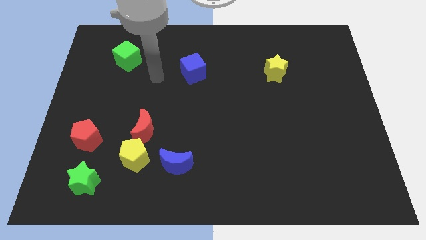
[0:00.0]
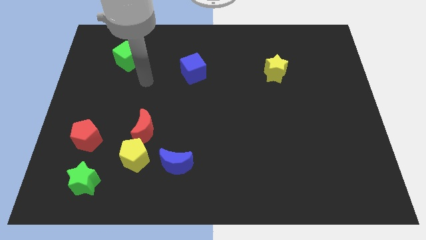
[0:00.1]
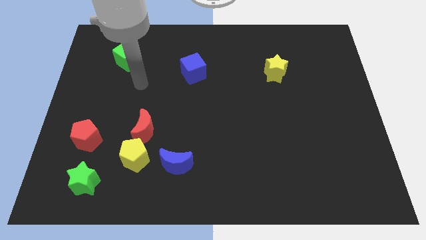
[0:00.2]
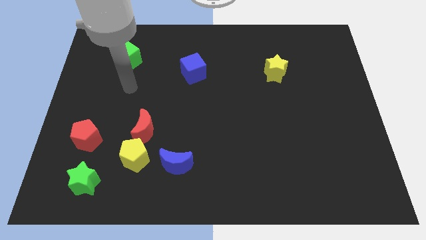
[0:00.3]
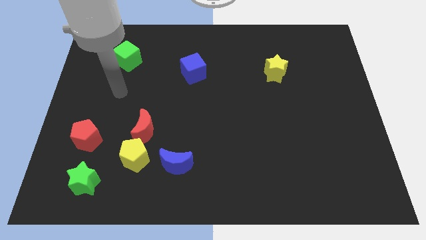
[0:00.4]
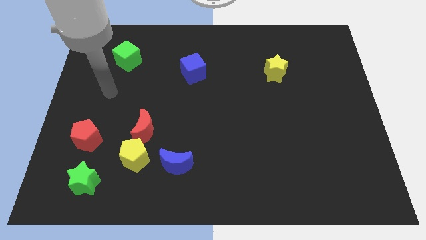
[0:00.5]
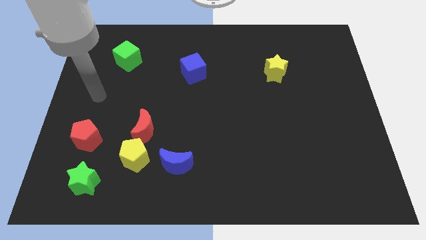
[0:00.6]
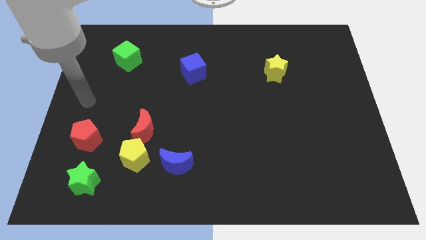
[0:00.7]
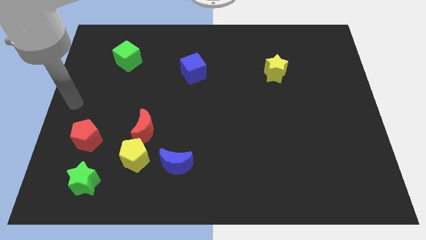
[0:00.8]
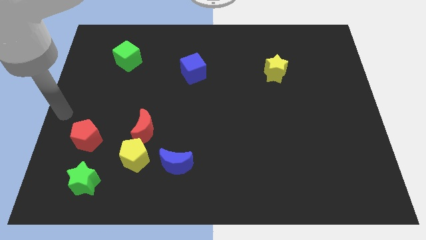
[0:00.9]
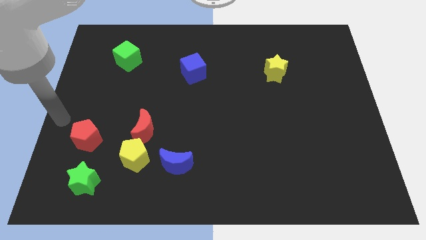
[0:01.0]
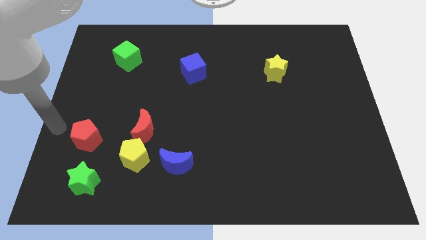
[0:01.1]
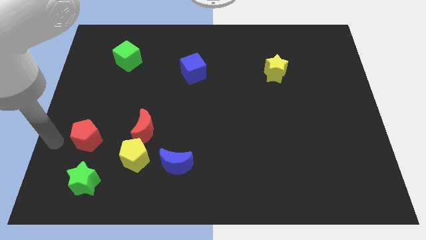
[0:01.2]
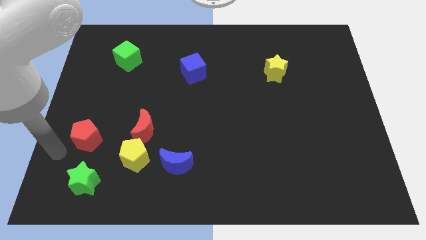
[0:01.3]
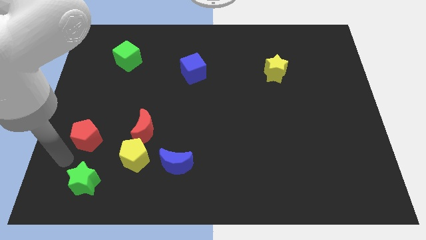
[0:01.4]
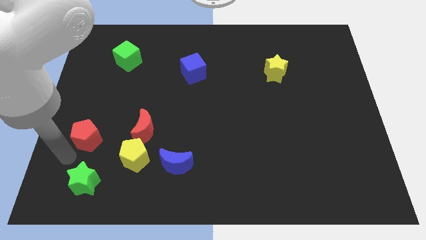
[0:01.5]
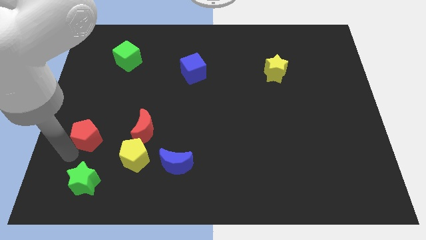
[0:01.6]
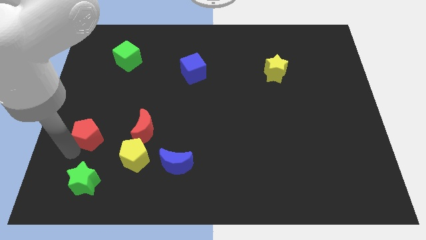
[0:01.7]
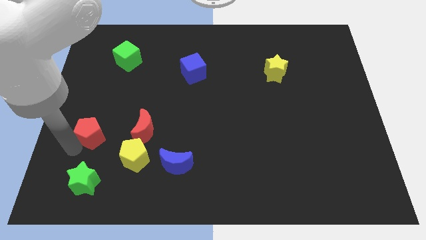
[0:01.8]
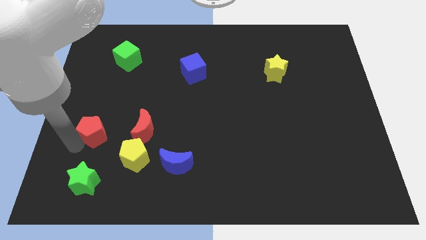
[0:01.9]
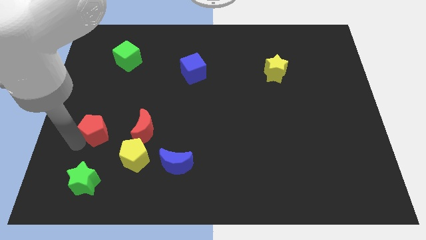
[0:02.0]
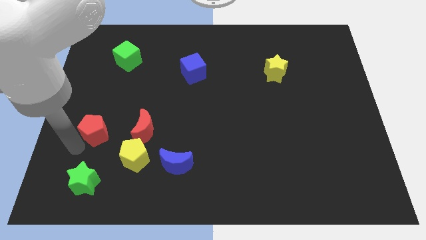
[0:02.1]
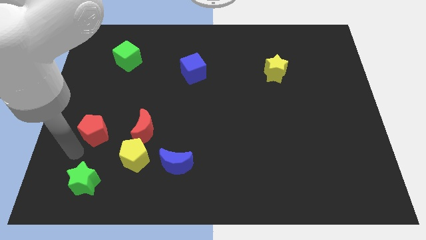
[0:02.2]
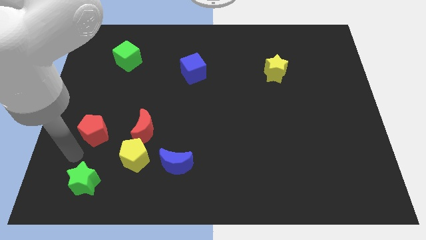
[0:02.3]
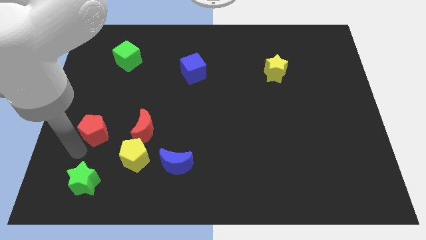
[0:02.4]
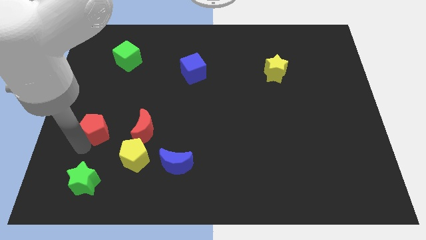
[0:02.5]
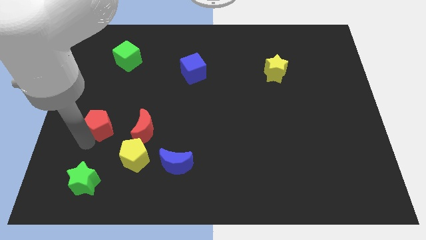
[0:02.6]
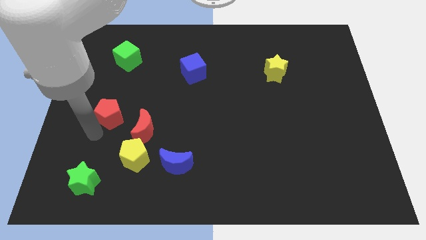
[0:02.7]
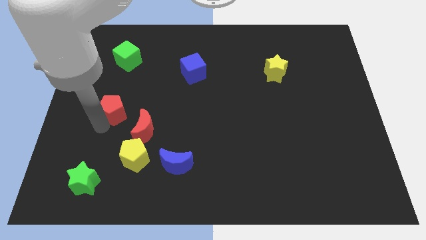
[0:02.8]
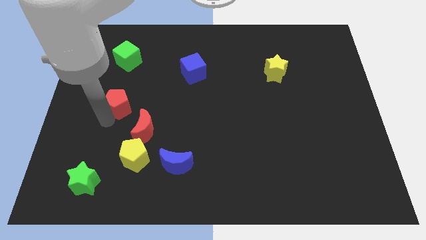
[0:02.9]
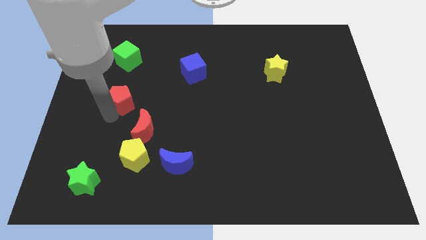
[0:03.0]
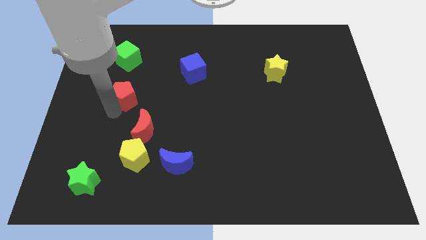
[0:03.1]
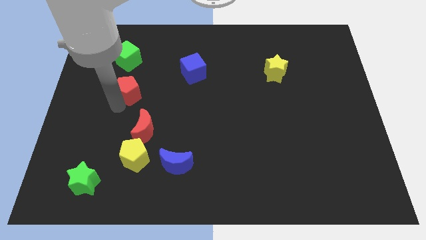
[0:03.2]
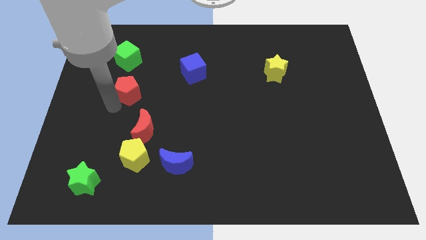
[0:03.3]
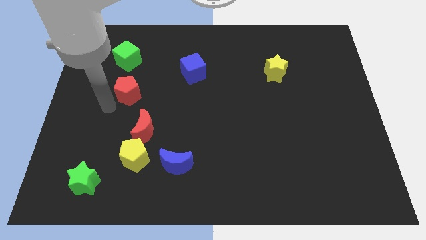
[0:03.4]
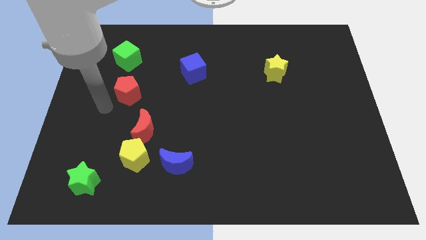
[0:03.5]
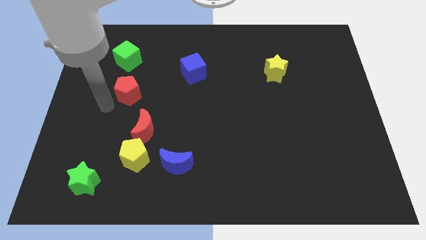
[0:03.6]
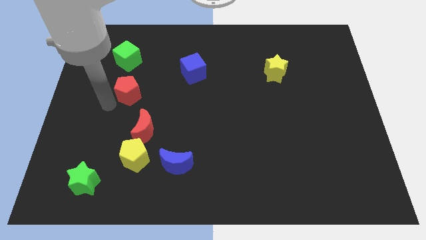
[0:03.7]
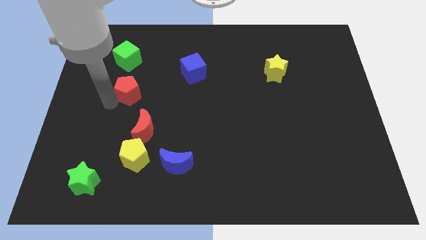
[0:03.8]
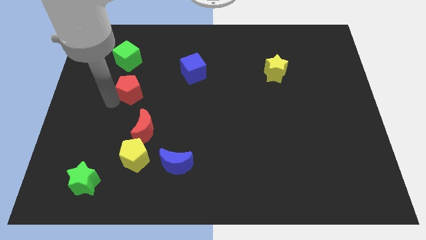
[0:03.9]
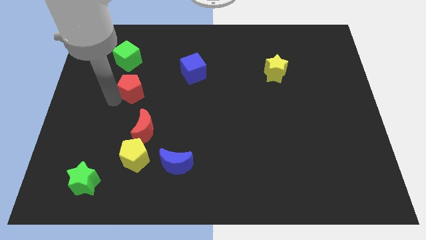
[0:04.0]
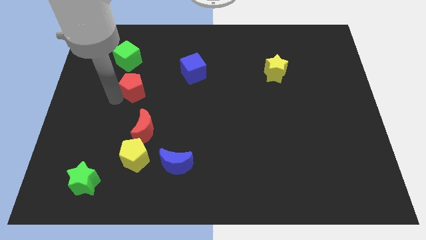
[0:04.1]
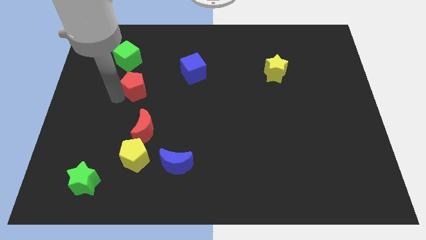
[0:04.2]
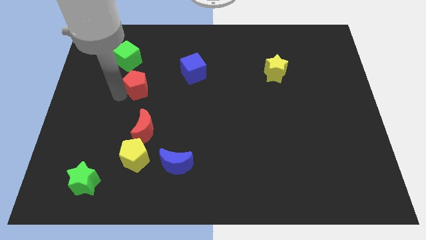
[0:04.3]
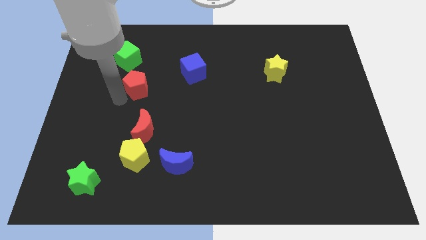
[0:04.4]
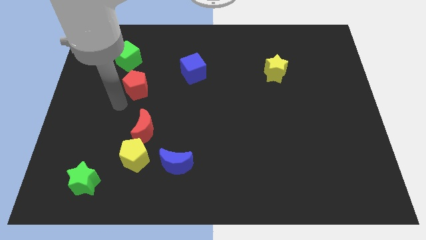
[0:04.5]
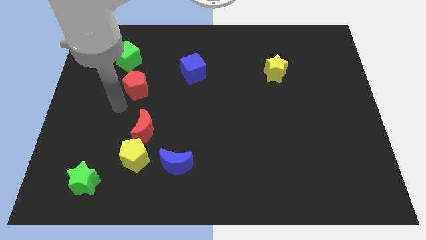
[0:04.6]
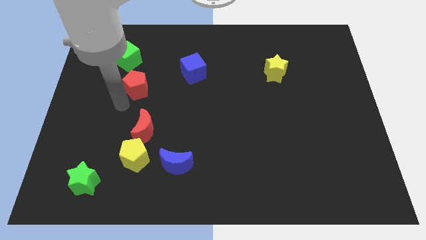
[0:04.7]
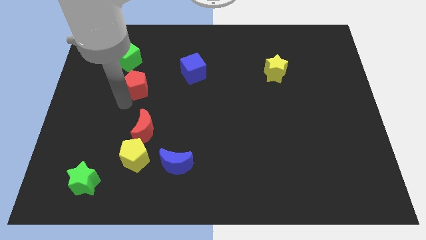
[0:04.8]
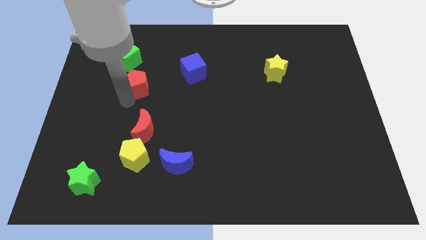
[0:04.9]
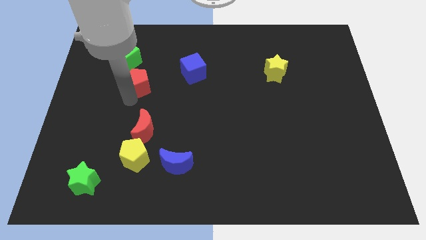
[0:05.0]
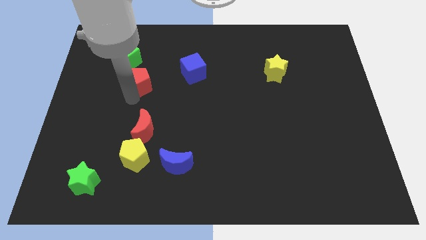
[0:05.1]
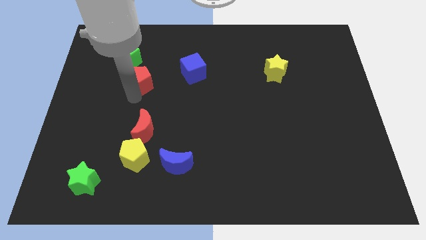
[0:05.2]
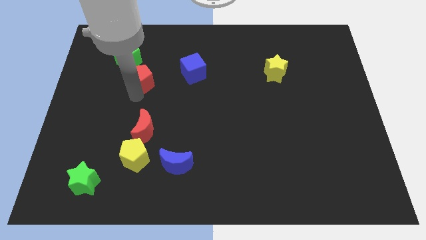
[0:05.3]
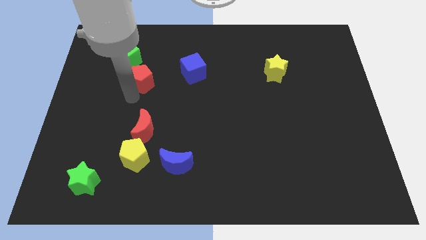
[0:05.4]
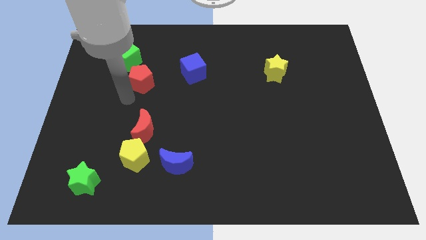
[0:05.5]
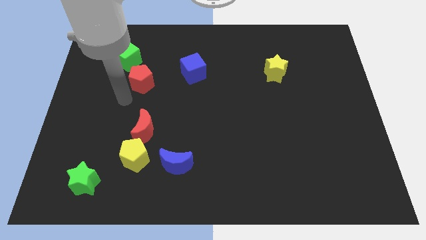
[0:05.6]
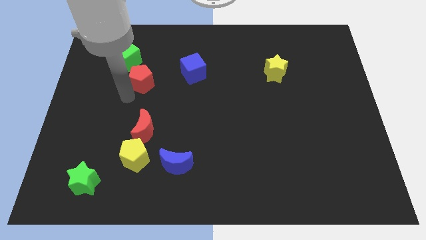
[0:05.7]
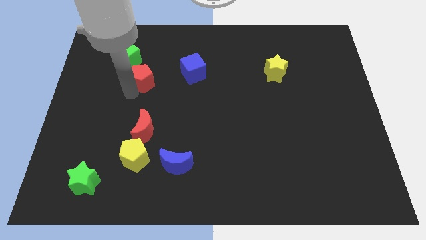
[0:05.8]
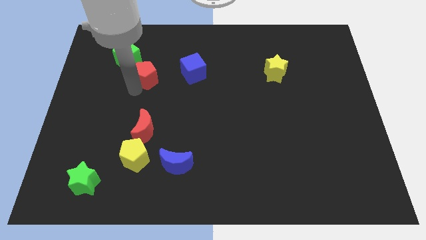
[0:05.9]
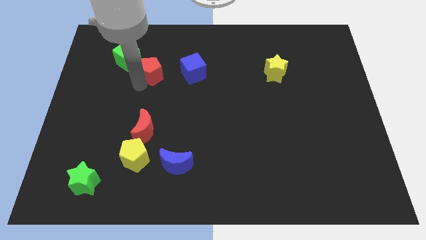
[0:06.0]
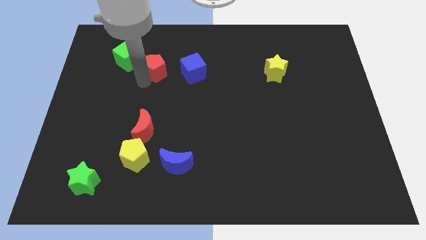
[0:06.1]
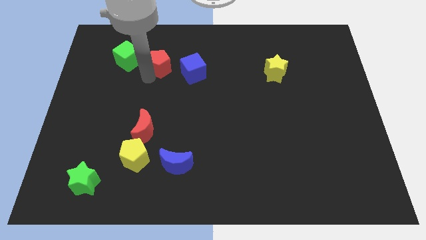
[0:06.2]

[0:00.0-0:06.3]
move the red pentagon diagonally up and to the left of the blue cube
